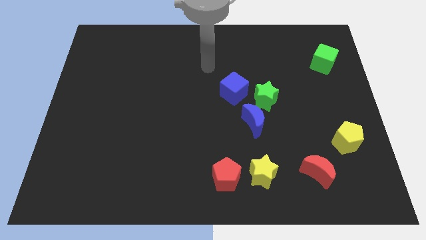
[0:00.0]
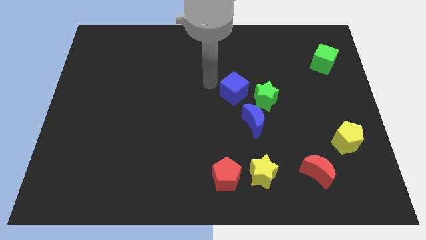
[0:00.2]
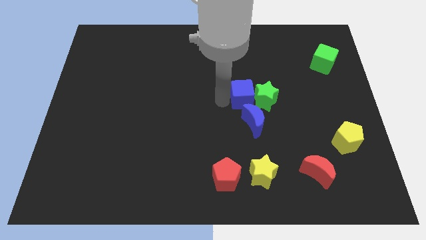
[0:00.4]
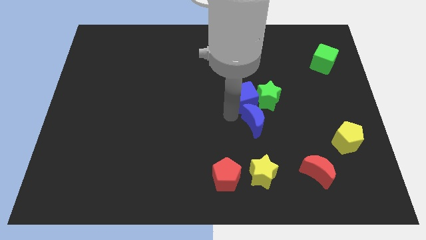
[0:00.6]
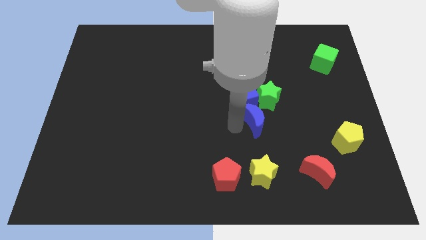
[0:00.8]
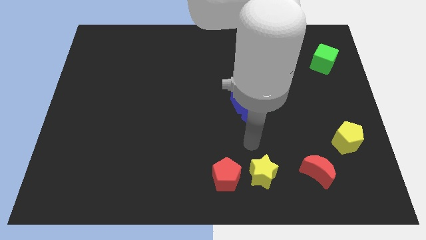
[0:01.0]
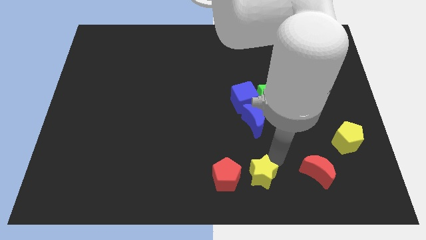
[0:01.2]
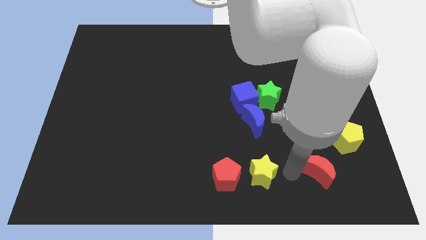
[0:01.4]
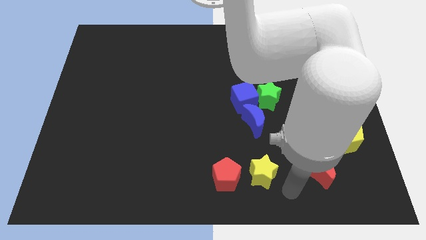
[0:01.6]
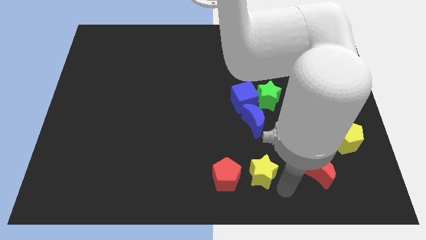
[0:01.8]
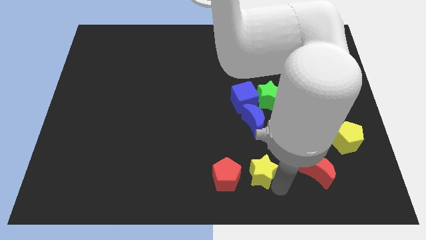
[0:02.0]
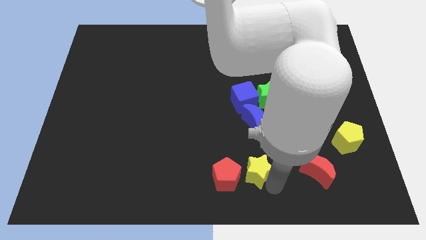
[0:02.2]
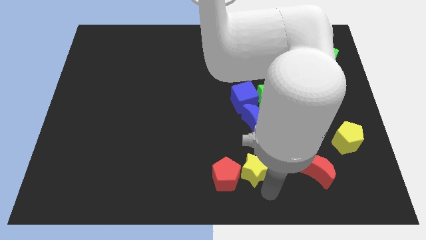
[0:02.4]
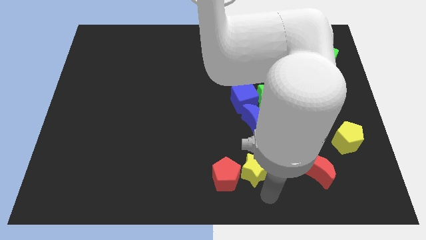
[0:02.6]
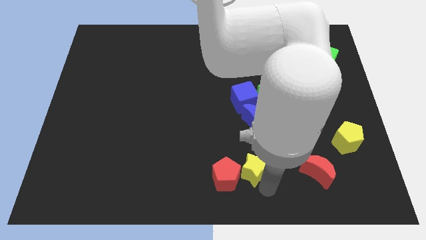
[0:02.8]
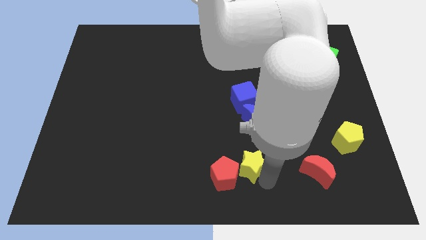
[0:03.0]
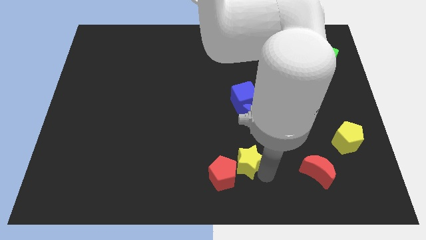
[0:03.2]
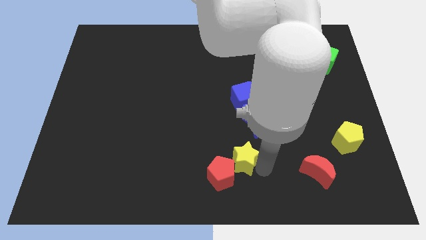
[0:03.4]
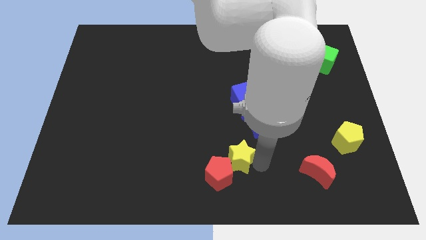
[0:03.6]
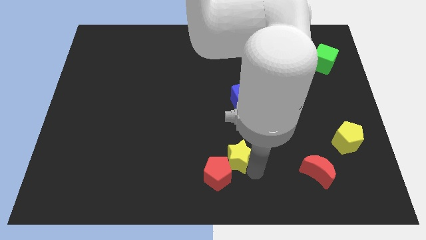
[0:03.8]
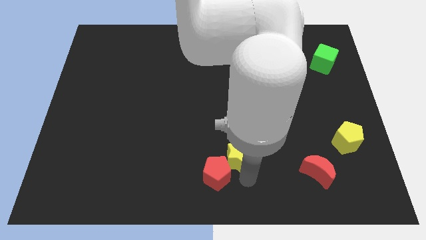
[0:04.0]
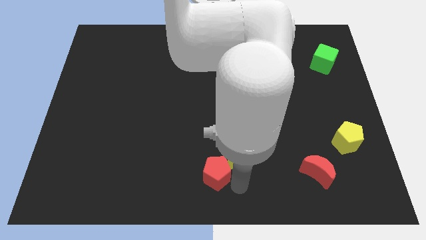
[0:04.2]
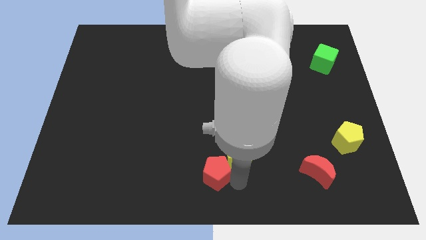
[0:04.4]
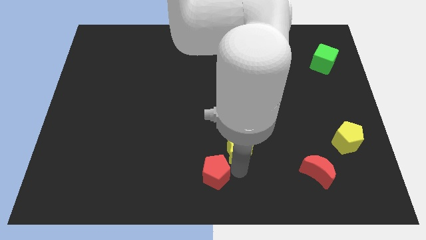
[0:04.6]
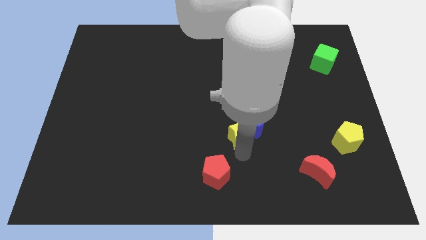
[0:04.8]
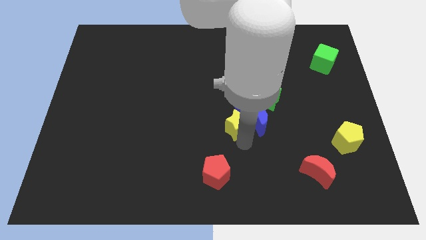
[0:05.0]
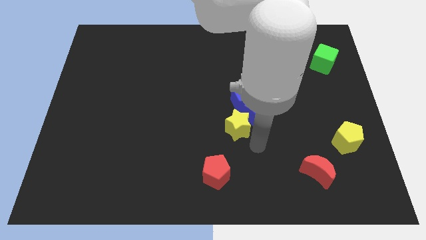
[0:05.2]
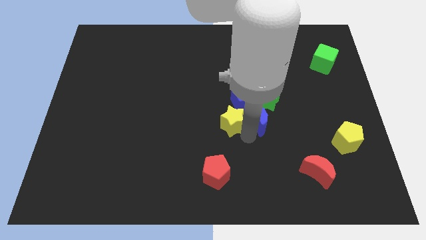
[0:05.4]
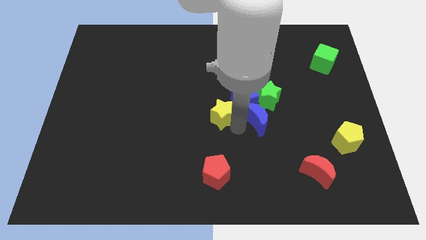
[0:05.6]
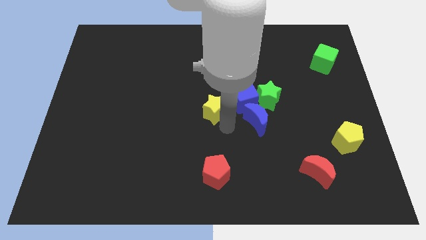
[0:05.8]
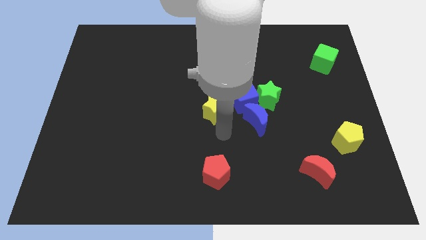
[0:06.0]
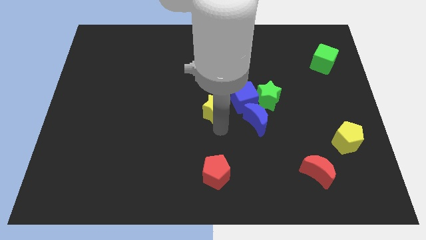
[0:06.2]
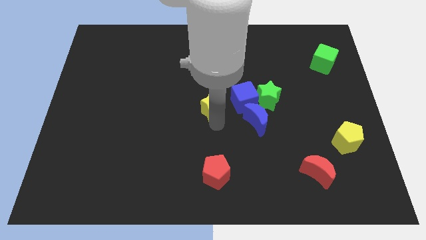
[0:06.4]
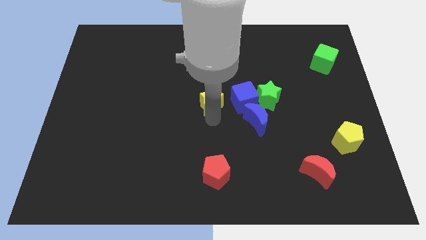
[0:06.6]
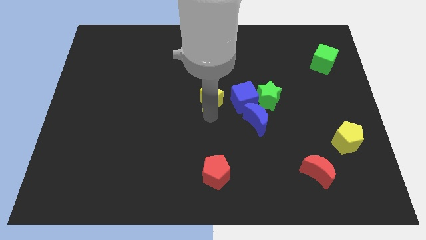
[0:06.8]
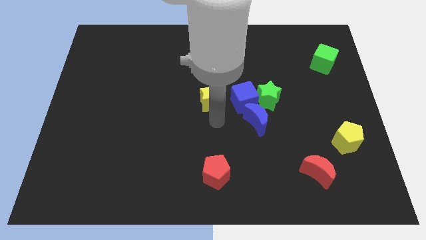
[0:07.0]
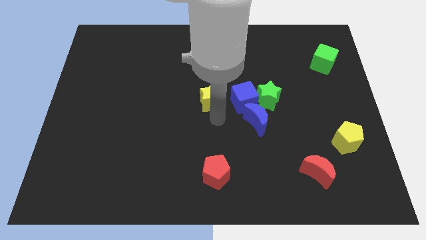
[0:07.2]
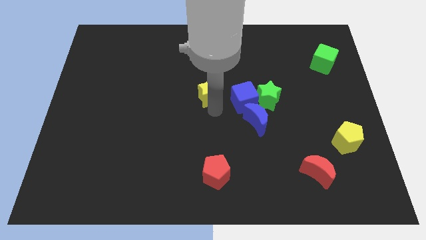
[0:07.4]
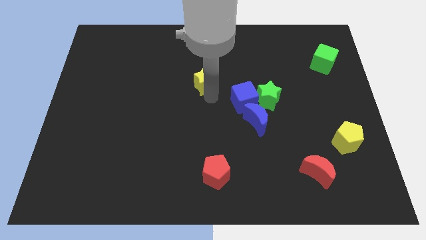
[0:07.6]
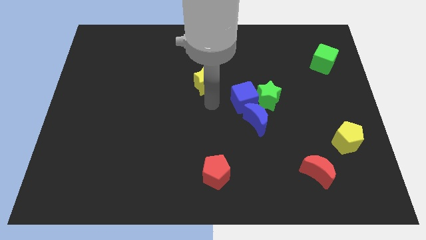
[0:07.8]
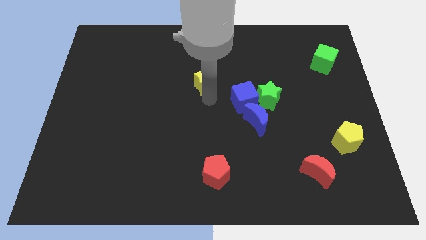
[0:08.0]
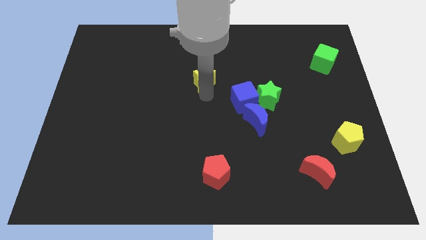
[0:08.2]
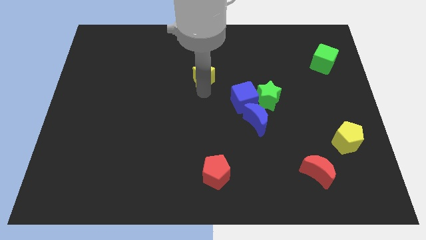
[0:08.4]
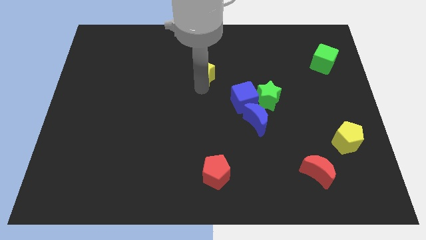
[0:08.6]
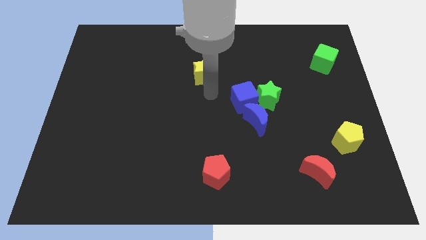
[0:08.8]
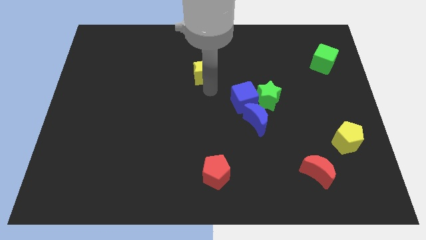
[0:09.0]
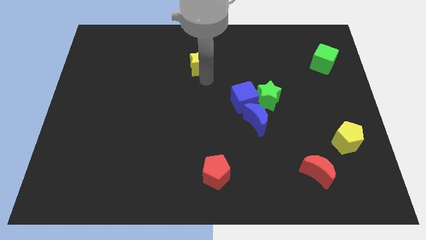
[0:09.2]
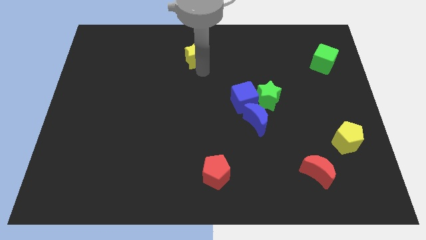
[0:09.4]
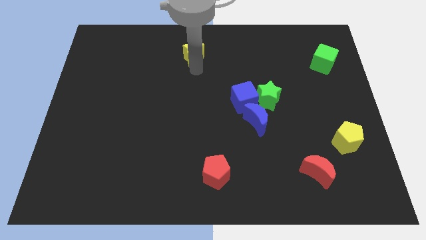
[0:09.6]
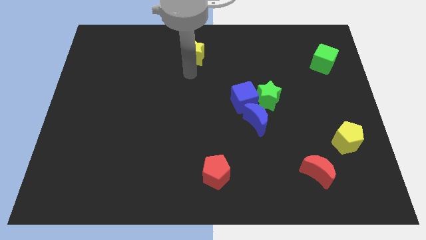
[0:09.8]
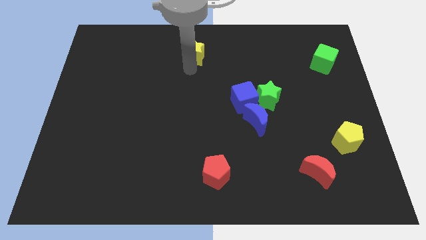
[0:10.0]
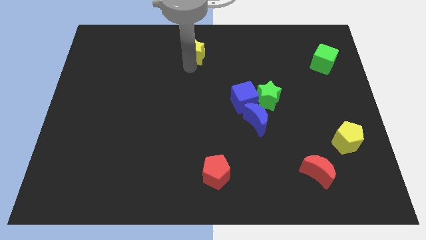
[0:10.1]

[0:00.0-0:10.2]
slide the yellow star to the top side

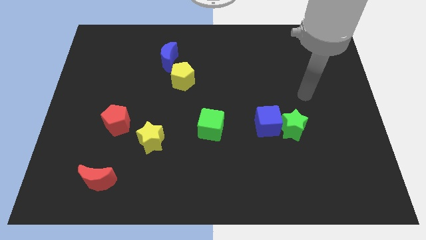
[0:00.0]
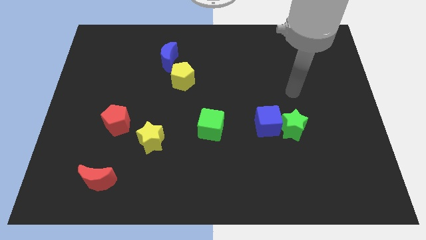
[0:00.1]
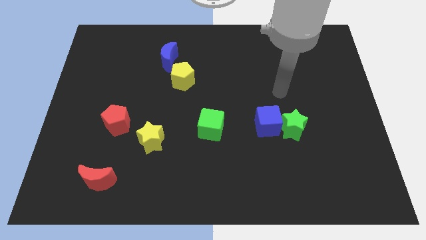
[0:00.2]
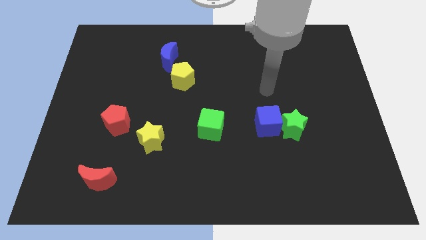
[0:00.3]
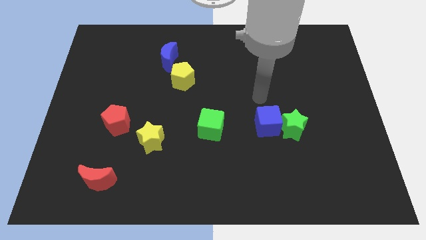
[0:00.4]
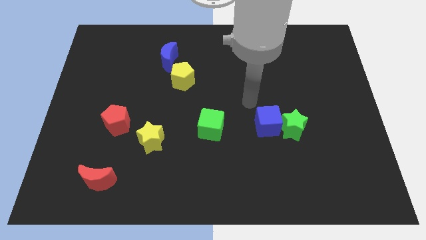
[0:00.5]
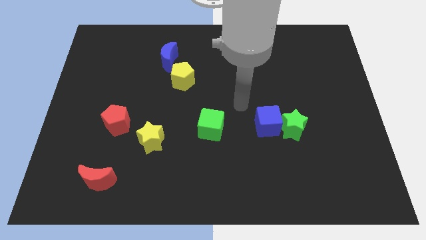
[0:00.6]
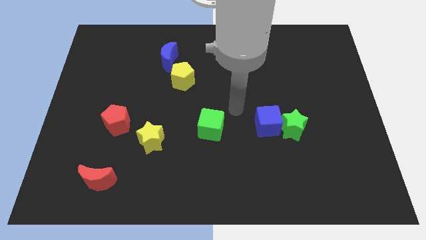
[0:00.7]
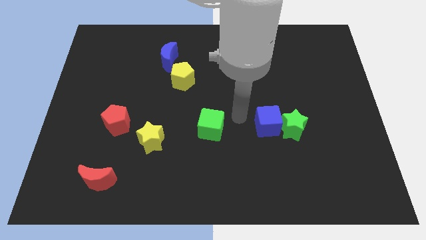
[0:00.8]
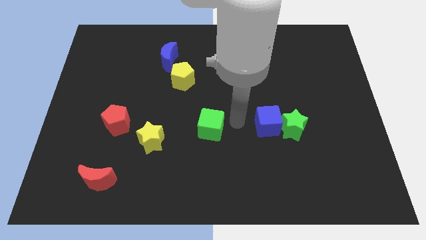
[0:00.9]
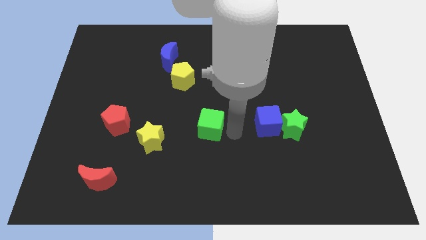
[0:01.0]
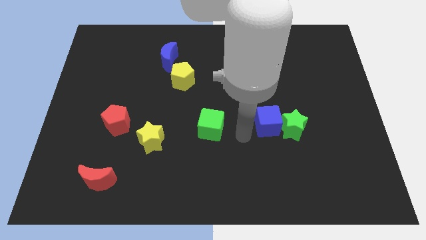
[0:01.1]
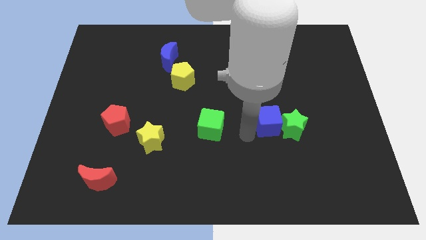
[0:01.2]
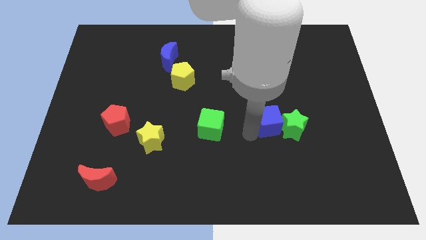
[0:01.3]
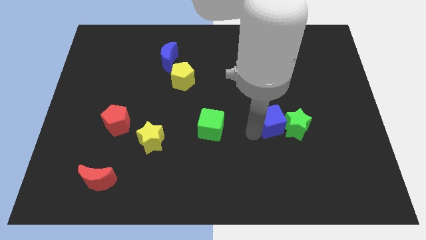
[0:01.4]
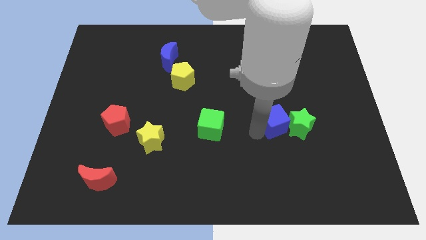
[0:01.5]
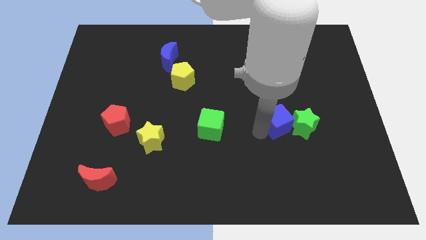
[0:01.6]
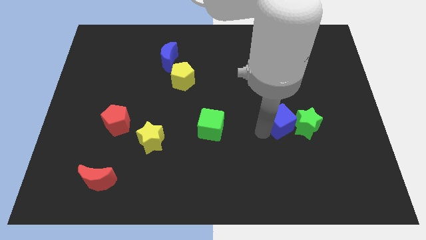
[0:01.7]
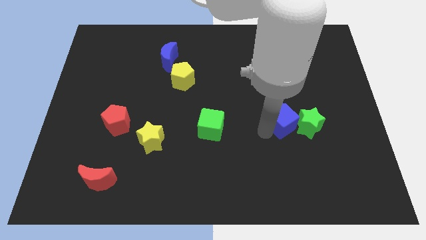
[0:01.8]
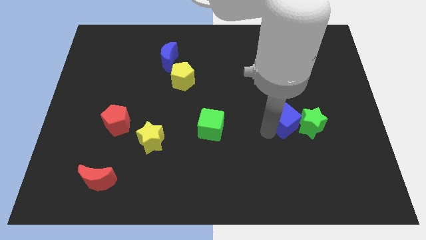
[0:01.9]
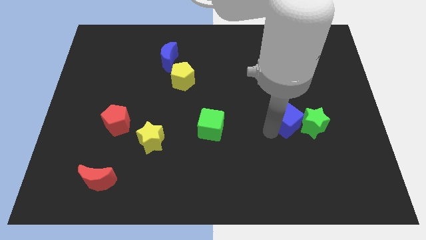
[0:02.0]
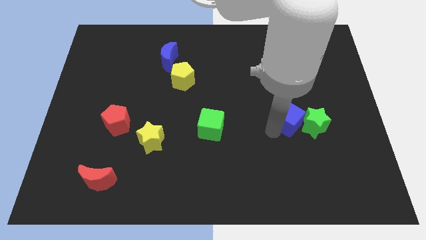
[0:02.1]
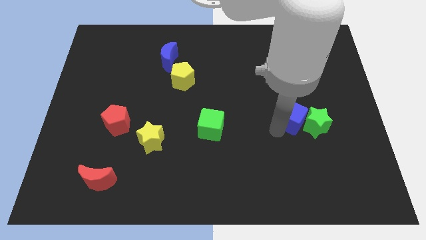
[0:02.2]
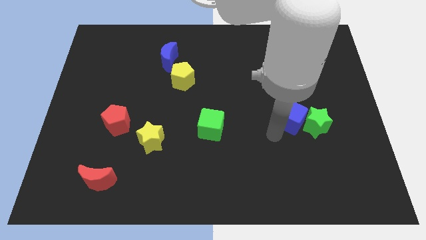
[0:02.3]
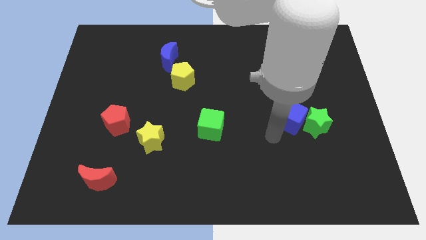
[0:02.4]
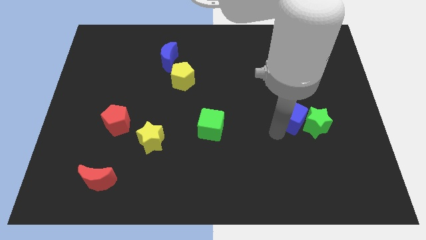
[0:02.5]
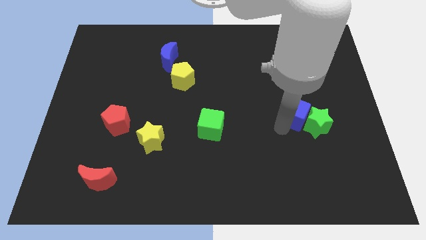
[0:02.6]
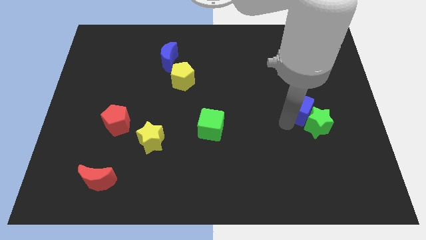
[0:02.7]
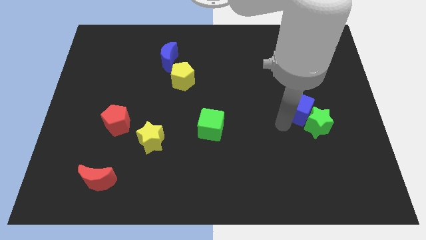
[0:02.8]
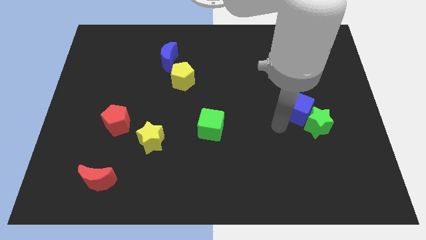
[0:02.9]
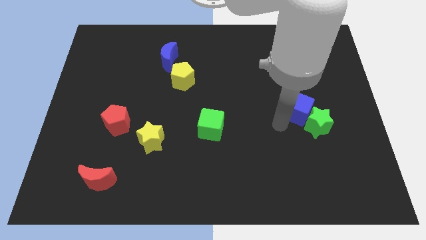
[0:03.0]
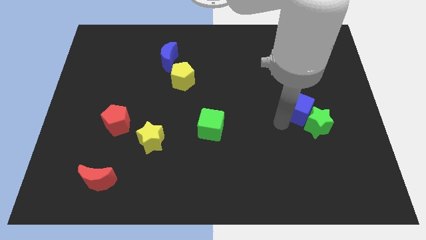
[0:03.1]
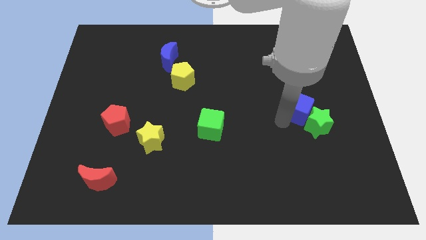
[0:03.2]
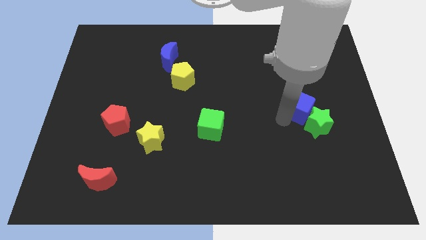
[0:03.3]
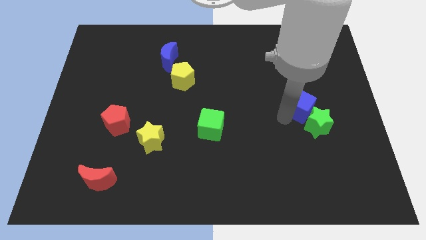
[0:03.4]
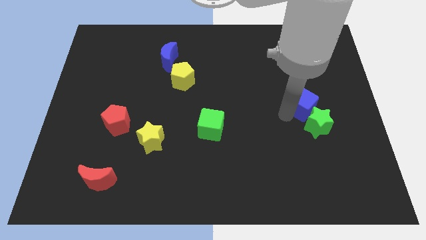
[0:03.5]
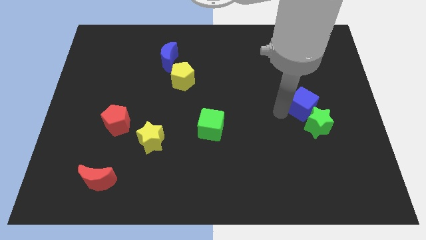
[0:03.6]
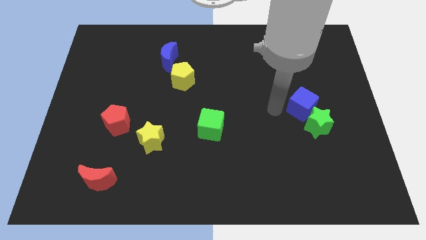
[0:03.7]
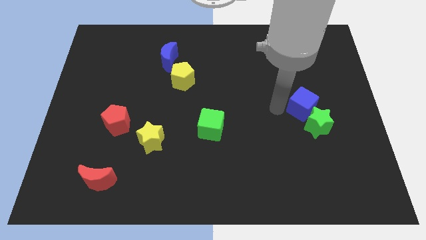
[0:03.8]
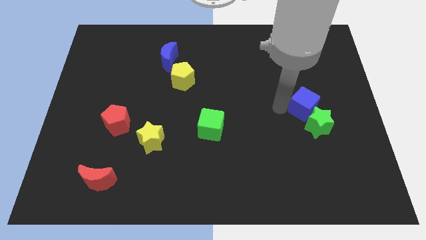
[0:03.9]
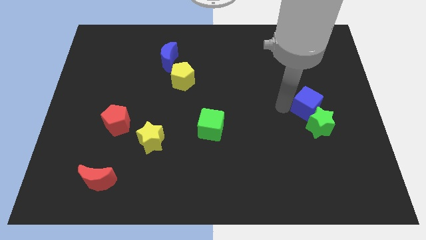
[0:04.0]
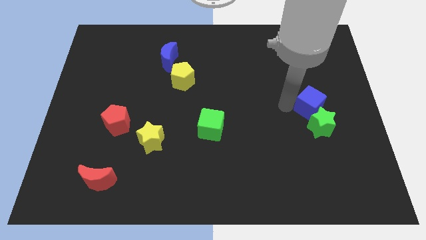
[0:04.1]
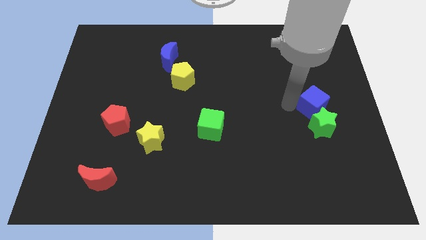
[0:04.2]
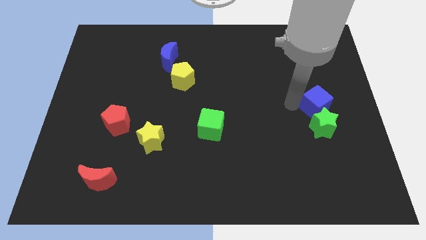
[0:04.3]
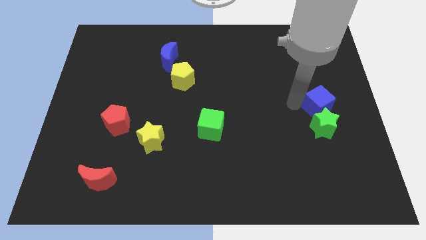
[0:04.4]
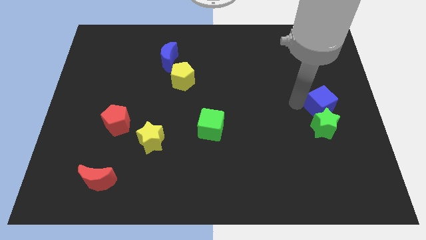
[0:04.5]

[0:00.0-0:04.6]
push the blue cube to the right side
